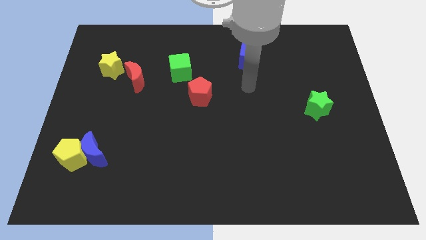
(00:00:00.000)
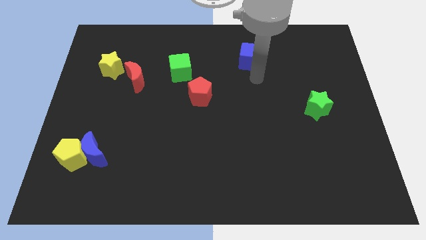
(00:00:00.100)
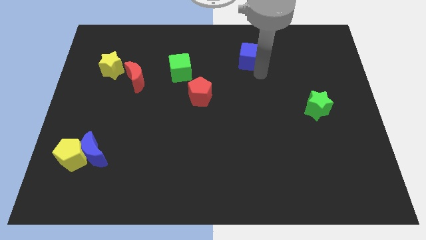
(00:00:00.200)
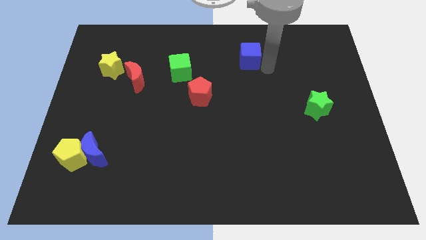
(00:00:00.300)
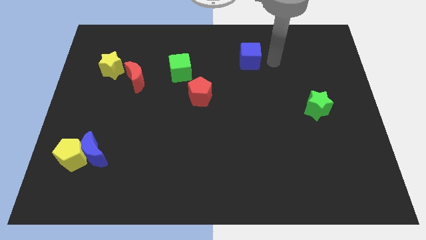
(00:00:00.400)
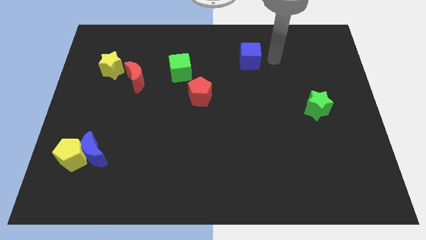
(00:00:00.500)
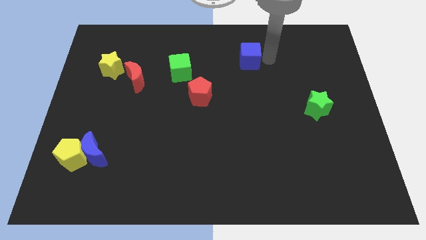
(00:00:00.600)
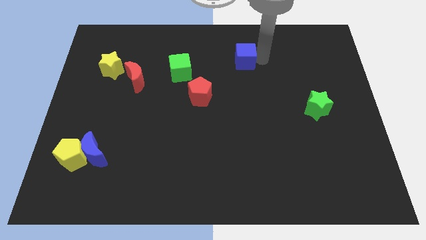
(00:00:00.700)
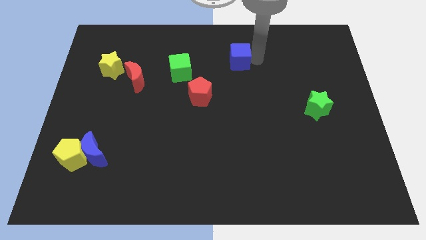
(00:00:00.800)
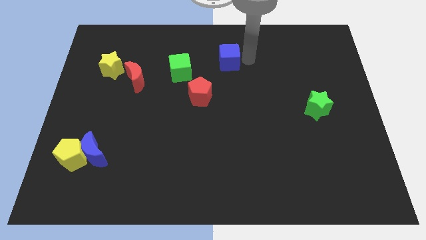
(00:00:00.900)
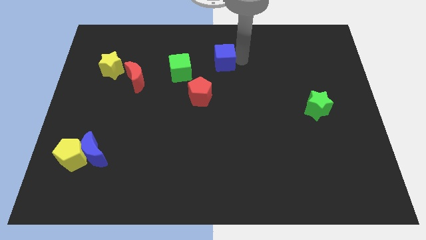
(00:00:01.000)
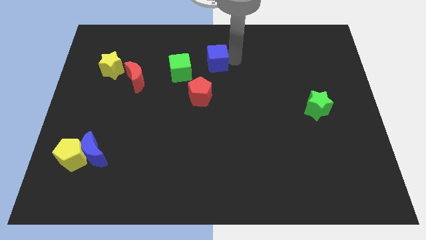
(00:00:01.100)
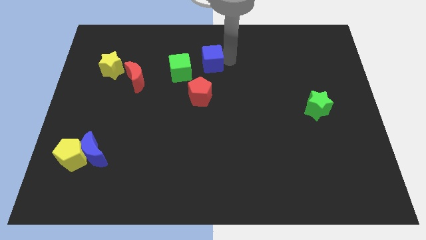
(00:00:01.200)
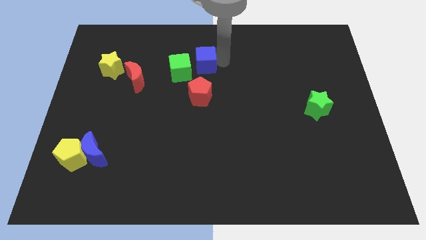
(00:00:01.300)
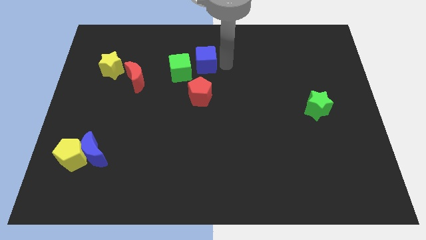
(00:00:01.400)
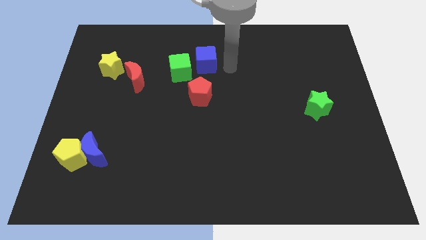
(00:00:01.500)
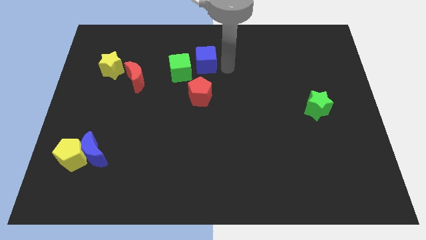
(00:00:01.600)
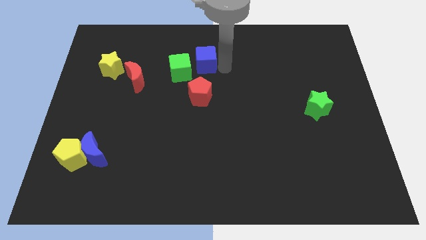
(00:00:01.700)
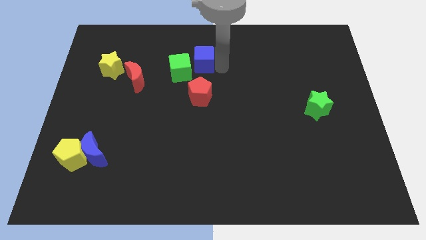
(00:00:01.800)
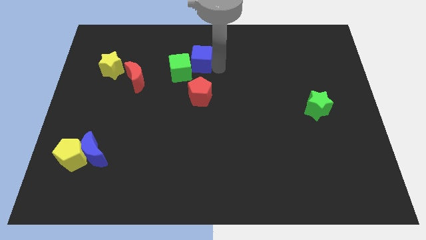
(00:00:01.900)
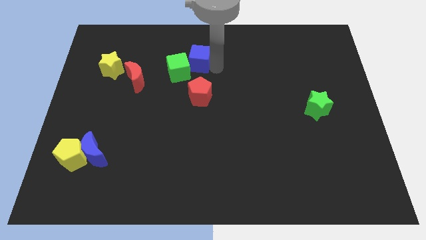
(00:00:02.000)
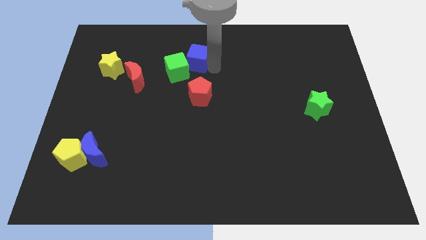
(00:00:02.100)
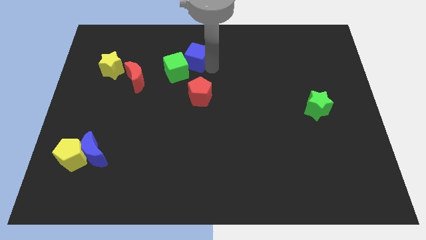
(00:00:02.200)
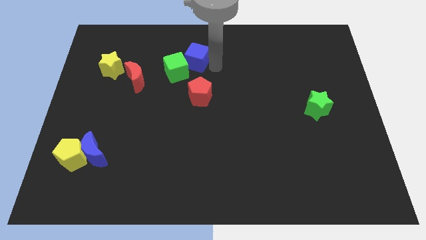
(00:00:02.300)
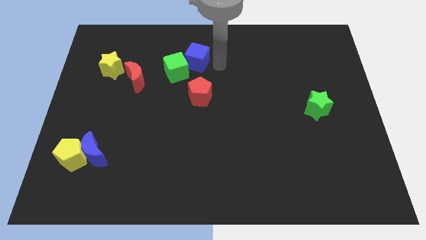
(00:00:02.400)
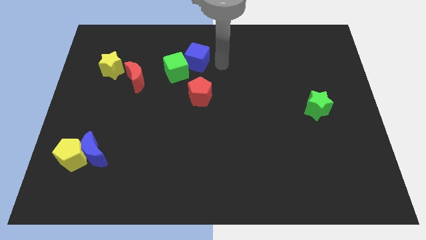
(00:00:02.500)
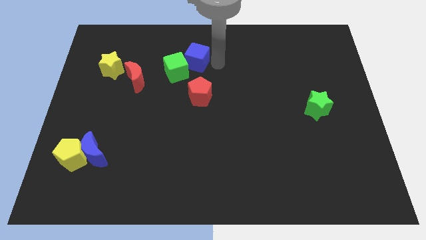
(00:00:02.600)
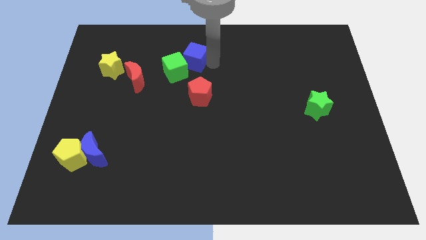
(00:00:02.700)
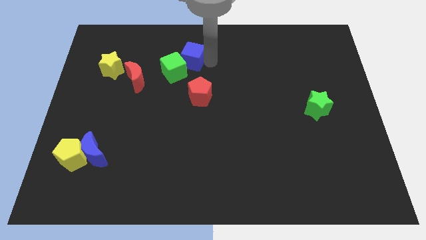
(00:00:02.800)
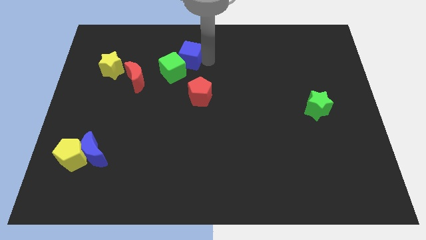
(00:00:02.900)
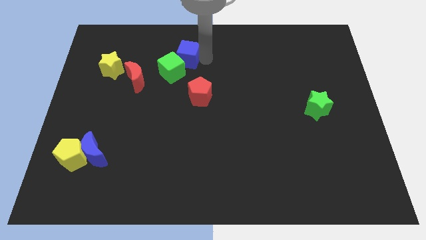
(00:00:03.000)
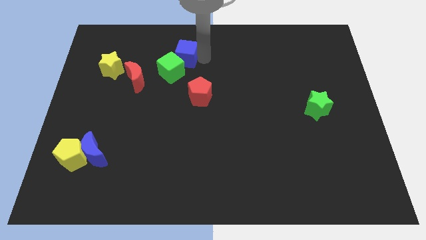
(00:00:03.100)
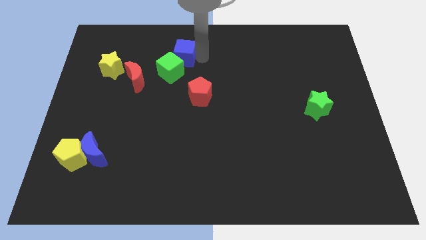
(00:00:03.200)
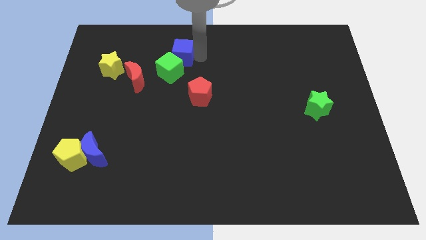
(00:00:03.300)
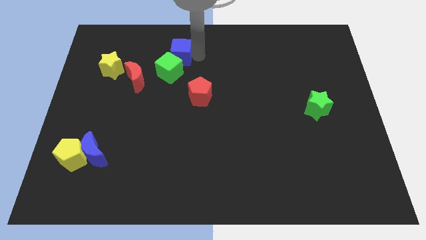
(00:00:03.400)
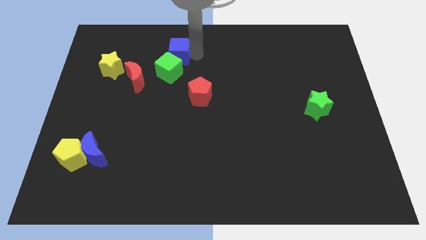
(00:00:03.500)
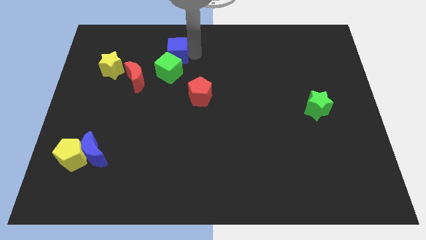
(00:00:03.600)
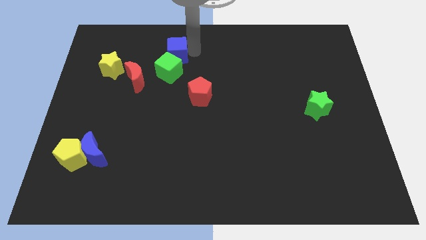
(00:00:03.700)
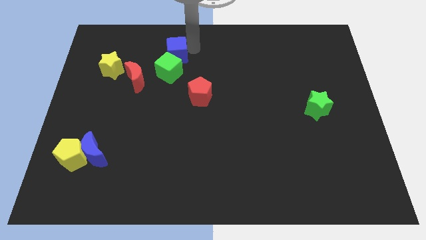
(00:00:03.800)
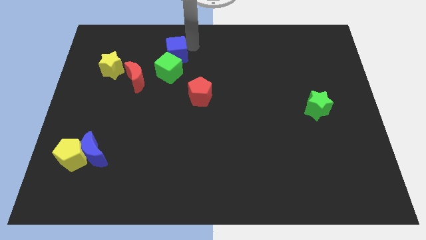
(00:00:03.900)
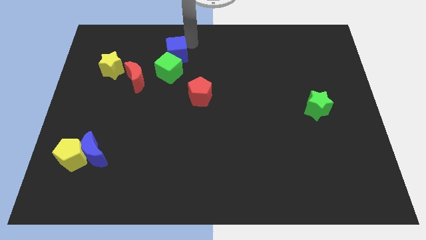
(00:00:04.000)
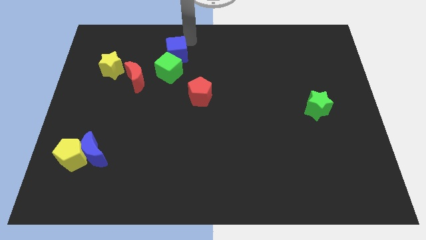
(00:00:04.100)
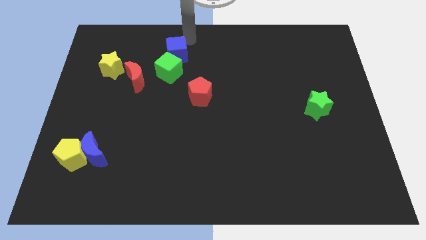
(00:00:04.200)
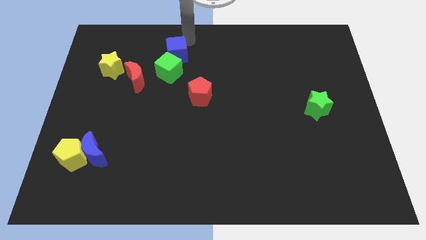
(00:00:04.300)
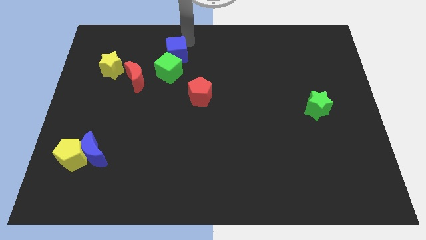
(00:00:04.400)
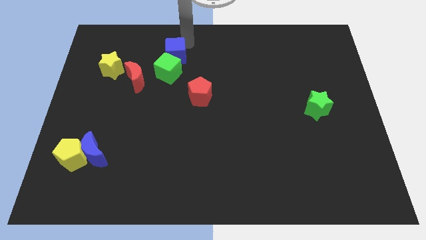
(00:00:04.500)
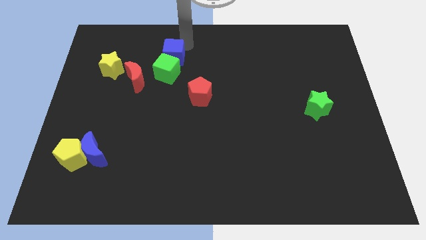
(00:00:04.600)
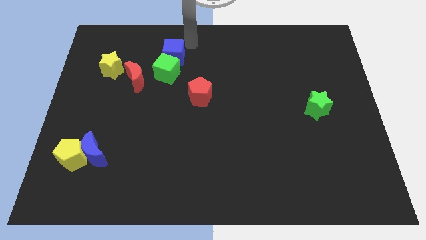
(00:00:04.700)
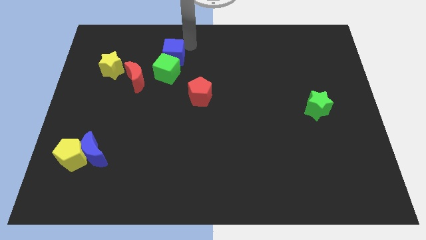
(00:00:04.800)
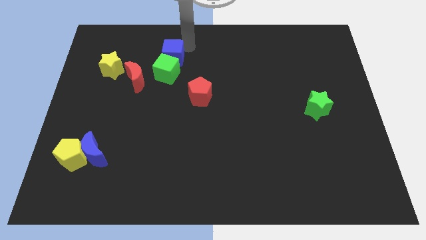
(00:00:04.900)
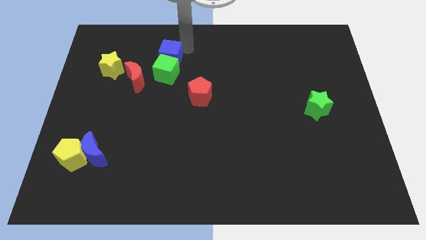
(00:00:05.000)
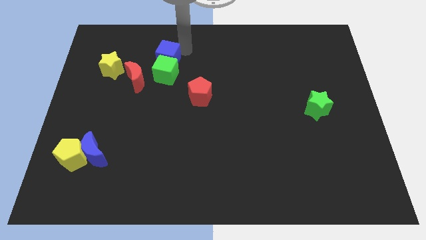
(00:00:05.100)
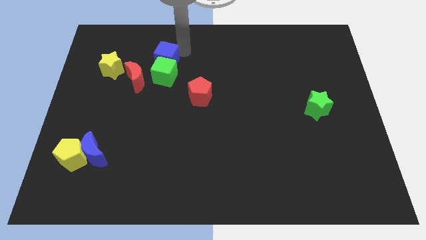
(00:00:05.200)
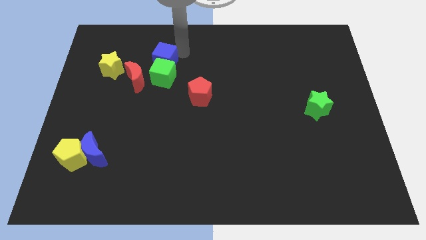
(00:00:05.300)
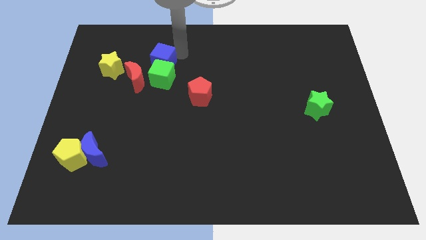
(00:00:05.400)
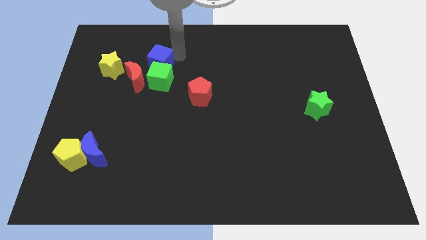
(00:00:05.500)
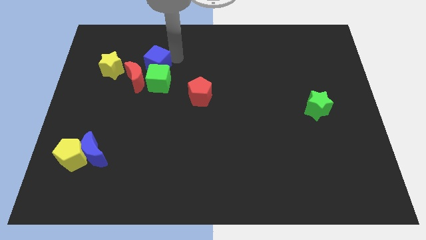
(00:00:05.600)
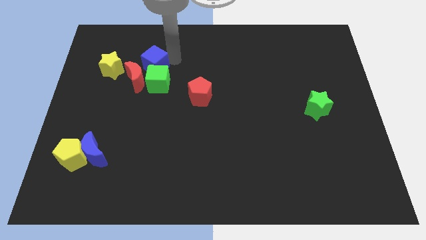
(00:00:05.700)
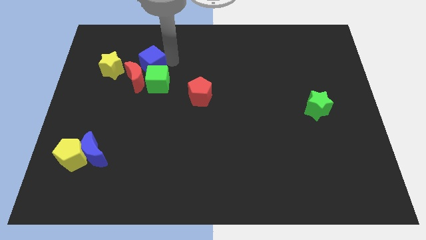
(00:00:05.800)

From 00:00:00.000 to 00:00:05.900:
put the blue cube close to the red moon
